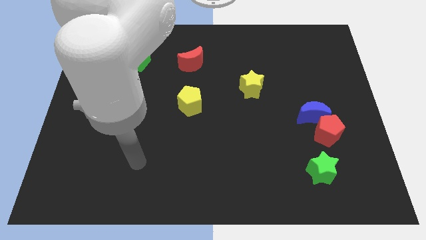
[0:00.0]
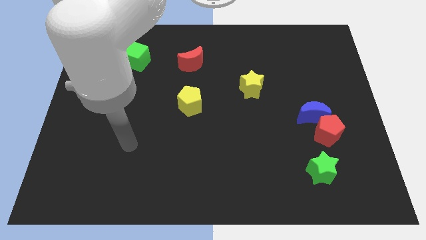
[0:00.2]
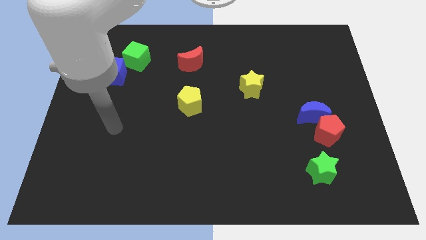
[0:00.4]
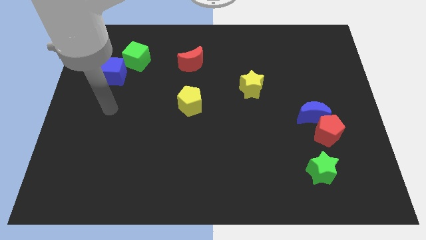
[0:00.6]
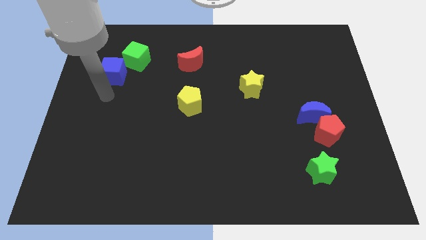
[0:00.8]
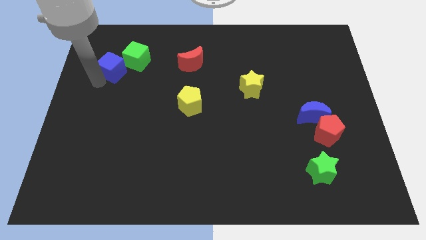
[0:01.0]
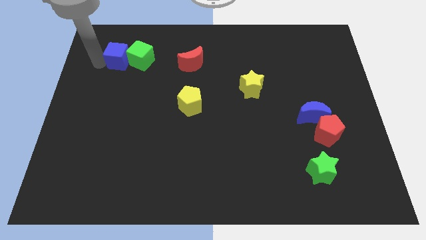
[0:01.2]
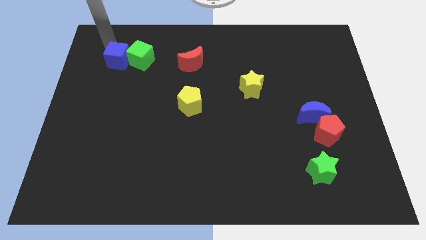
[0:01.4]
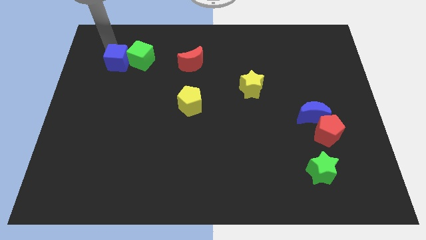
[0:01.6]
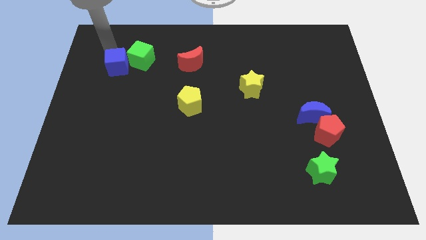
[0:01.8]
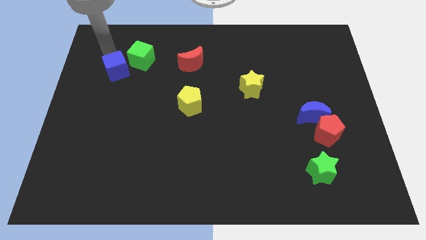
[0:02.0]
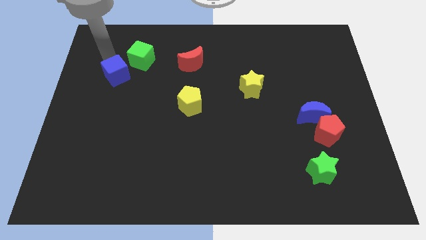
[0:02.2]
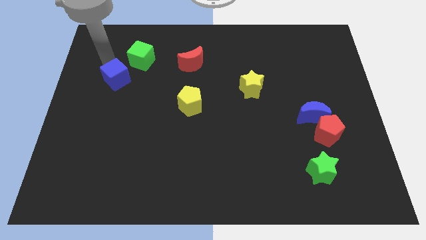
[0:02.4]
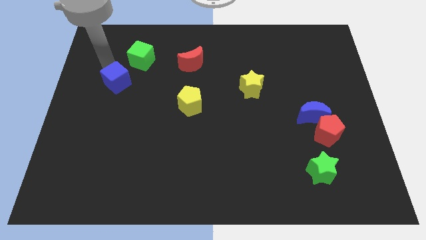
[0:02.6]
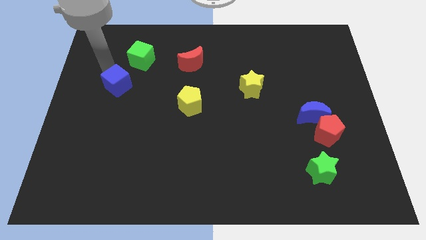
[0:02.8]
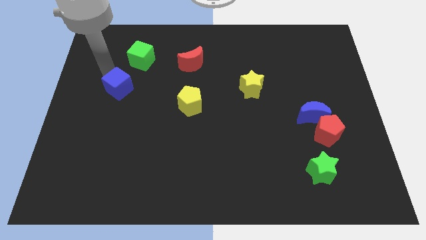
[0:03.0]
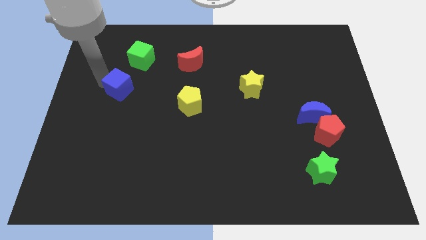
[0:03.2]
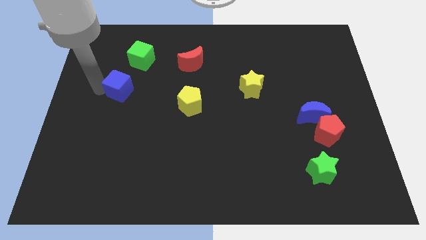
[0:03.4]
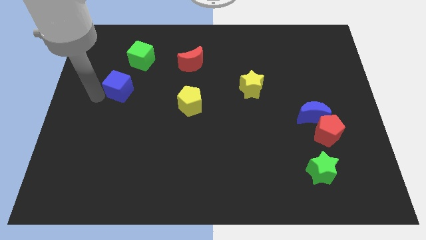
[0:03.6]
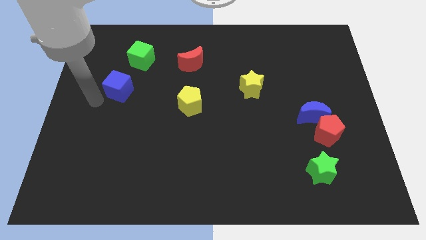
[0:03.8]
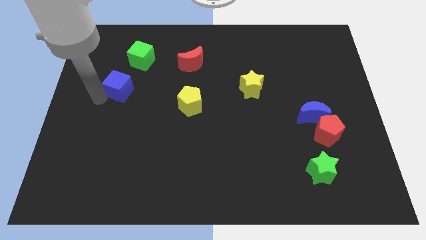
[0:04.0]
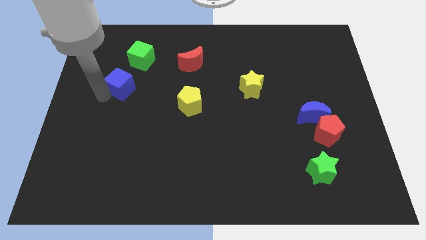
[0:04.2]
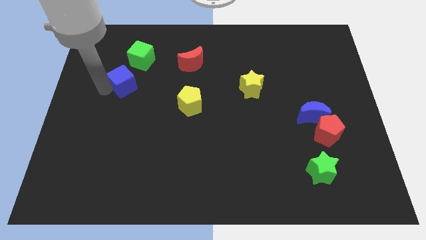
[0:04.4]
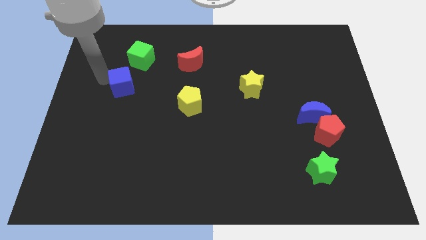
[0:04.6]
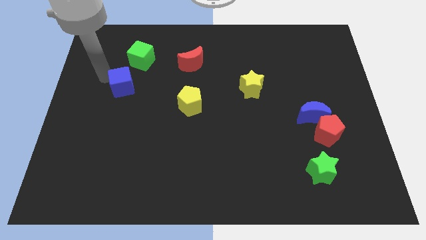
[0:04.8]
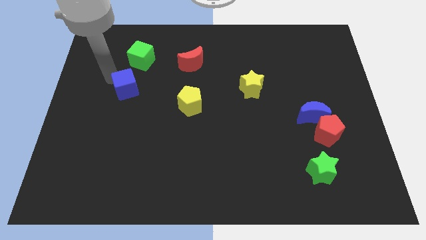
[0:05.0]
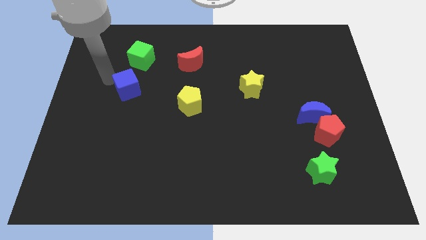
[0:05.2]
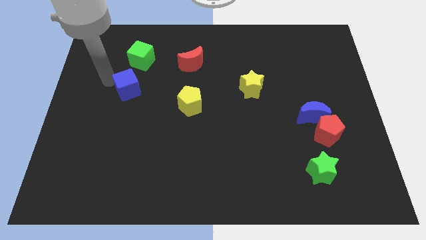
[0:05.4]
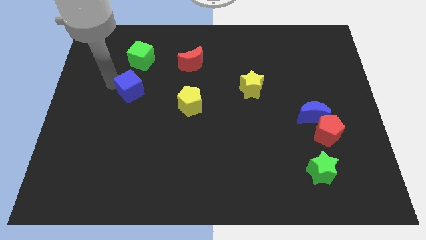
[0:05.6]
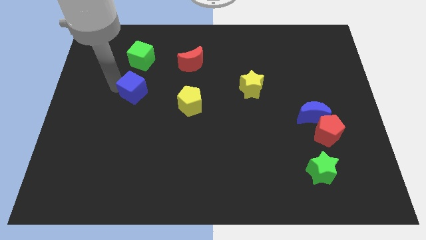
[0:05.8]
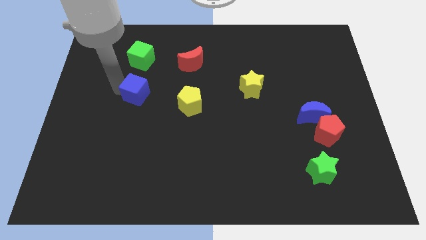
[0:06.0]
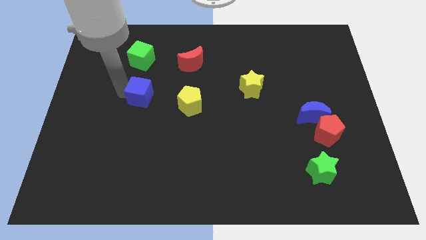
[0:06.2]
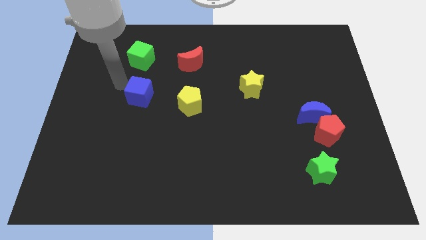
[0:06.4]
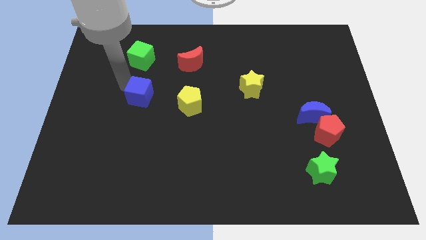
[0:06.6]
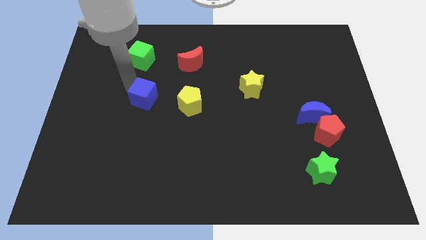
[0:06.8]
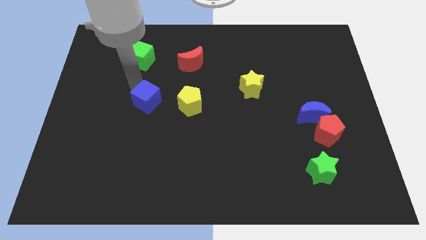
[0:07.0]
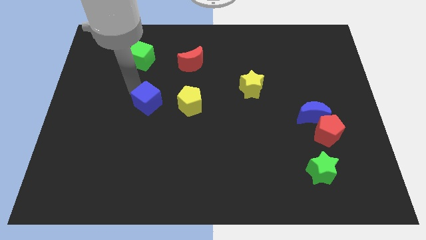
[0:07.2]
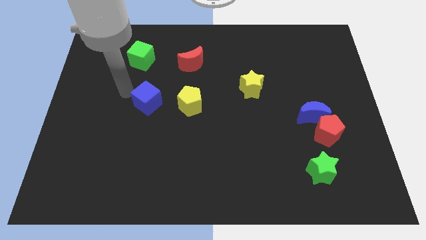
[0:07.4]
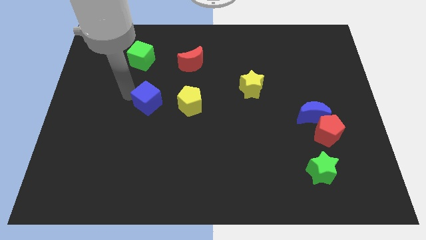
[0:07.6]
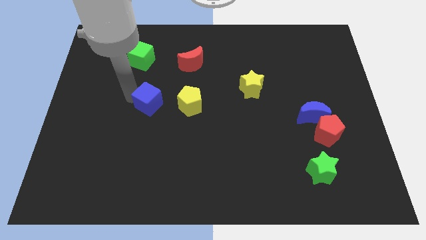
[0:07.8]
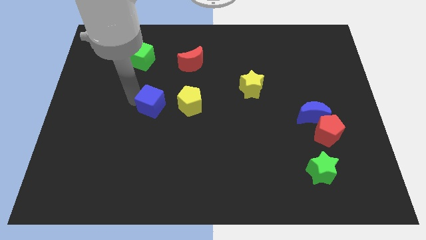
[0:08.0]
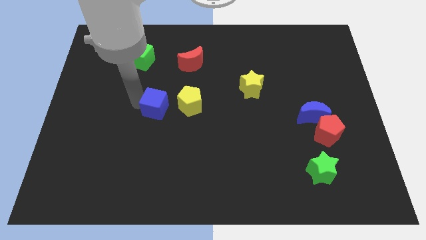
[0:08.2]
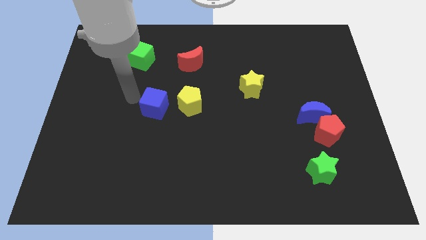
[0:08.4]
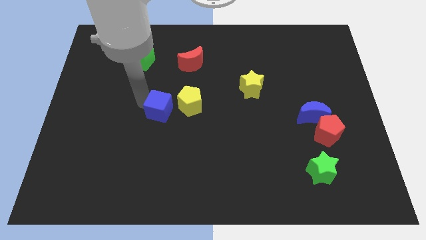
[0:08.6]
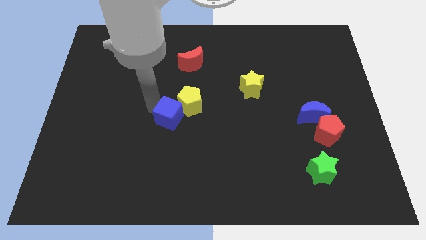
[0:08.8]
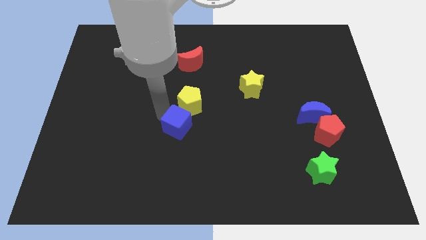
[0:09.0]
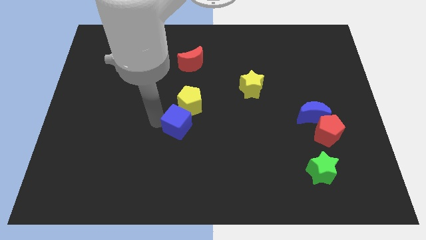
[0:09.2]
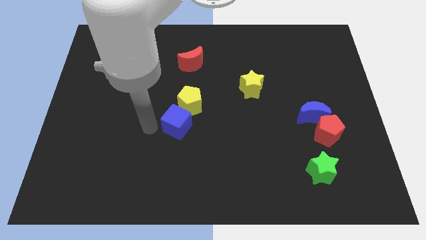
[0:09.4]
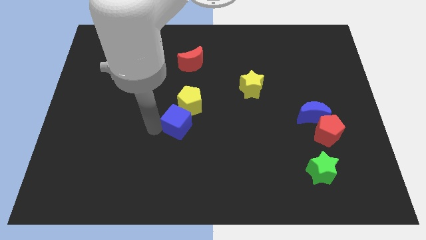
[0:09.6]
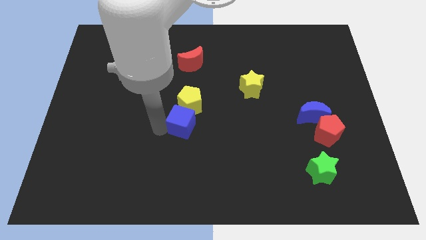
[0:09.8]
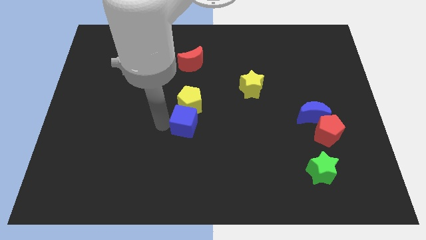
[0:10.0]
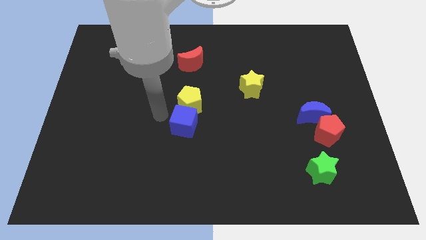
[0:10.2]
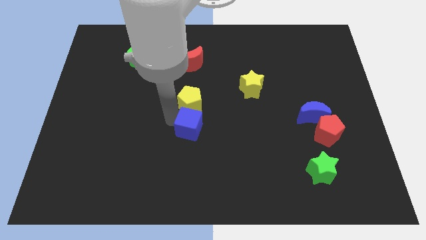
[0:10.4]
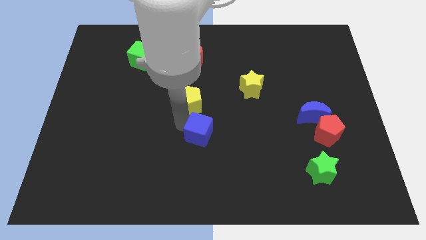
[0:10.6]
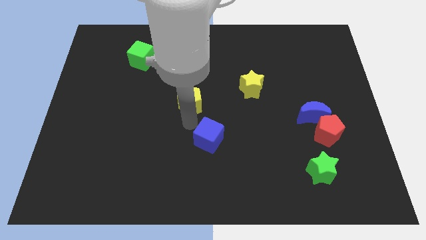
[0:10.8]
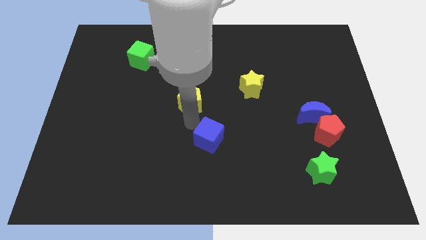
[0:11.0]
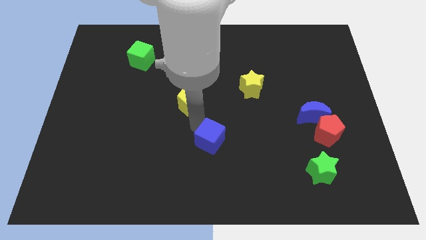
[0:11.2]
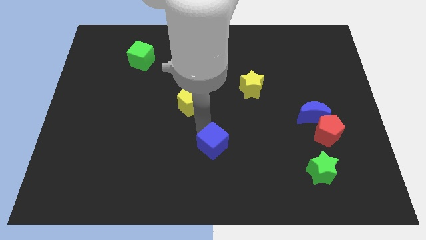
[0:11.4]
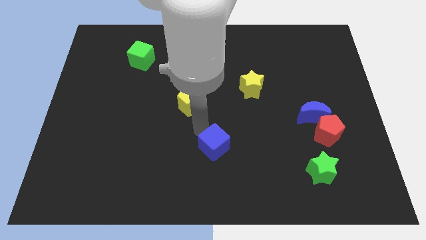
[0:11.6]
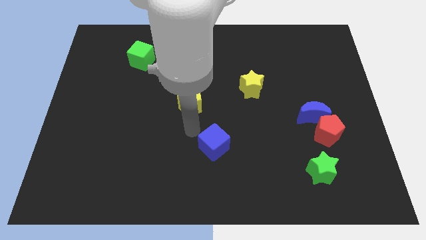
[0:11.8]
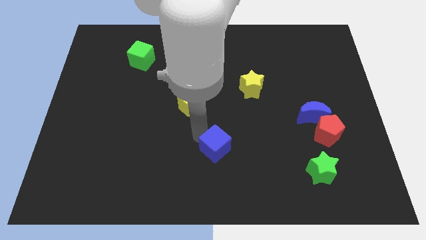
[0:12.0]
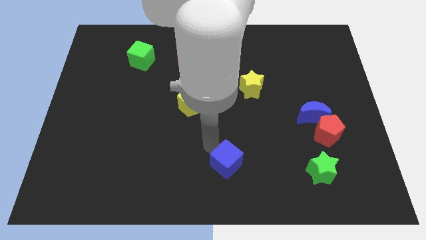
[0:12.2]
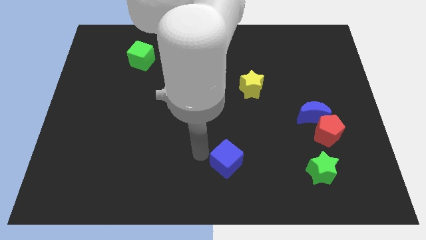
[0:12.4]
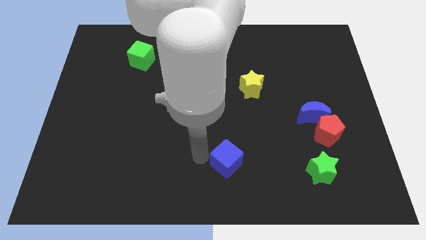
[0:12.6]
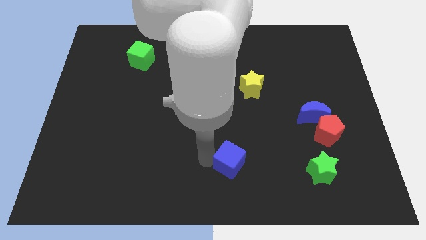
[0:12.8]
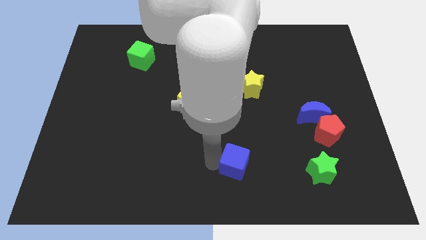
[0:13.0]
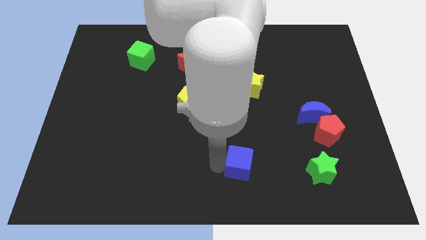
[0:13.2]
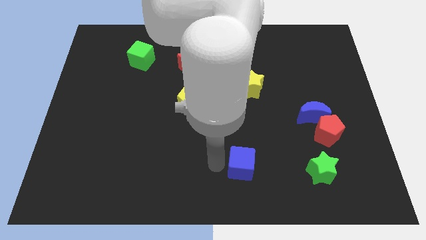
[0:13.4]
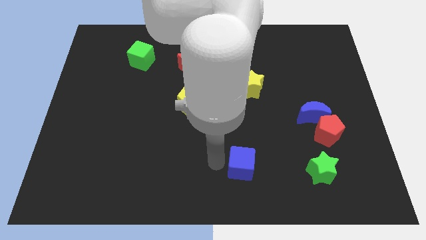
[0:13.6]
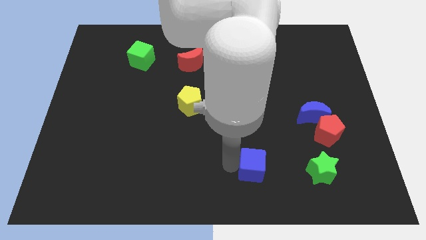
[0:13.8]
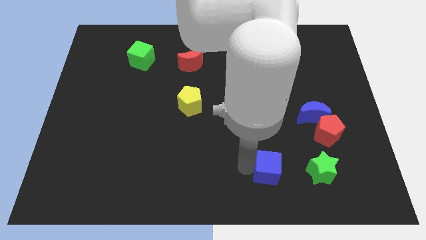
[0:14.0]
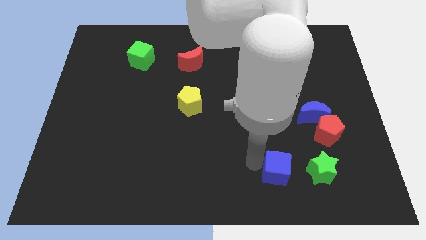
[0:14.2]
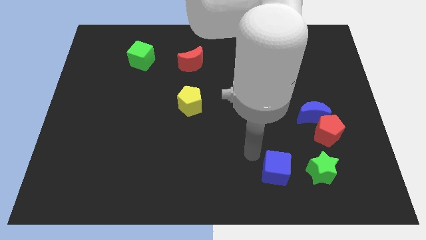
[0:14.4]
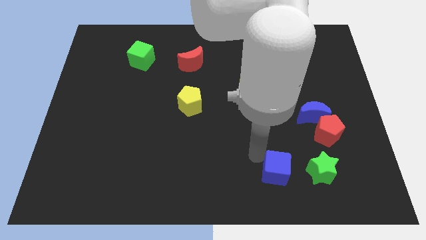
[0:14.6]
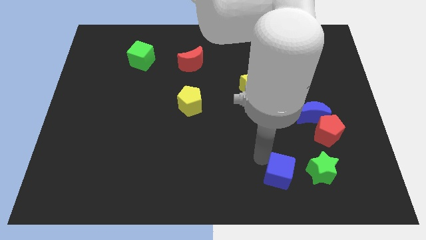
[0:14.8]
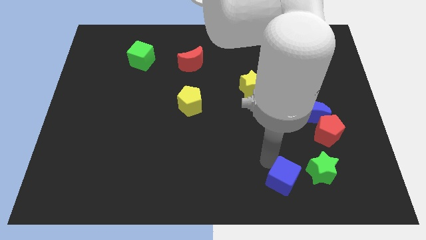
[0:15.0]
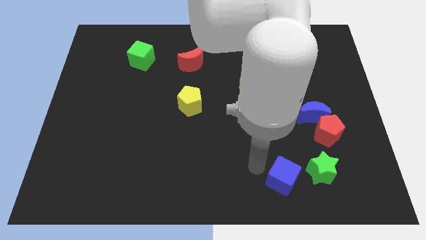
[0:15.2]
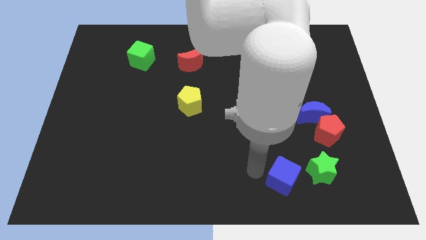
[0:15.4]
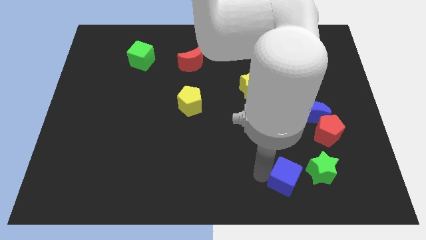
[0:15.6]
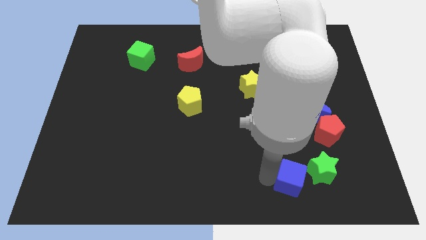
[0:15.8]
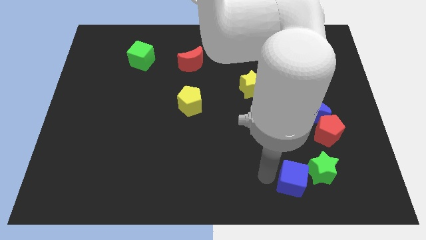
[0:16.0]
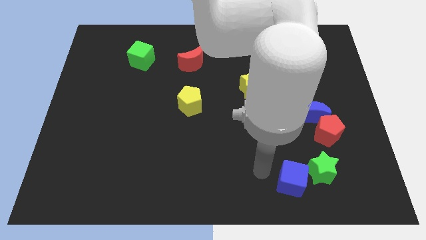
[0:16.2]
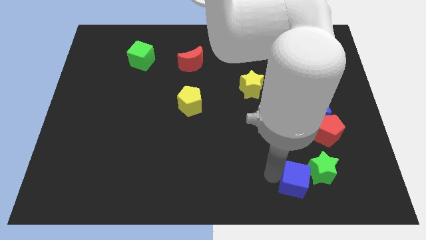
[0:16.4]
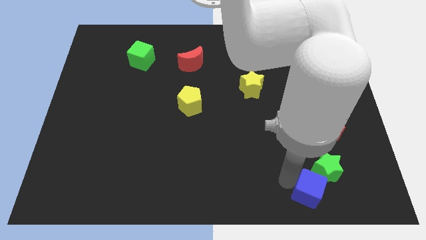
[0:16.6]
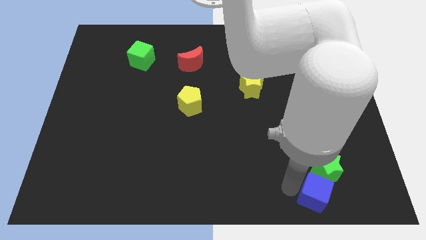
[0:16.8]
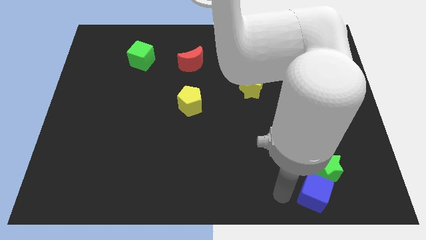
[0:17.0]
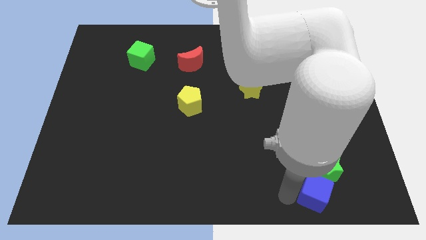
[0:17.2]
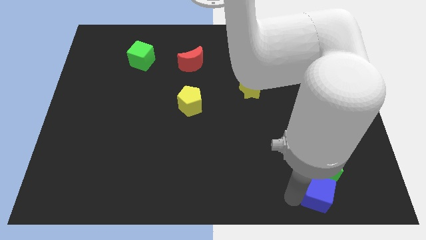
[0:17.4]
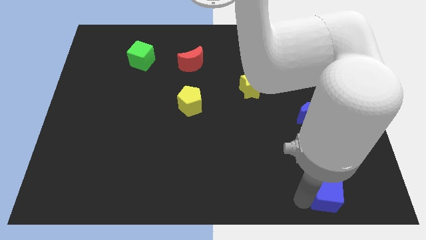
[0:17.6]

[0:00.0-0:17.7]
push the blue cube to the bottom side of the red pentagon
